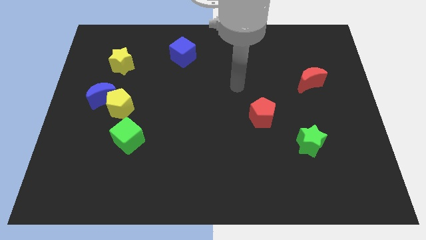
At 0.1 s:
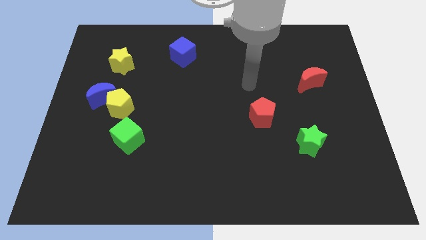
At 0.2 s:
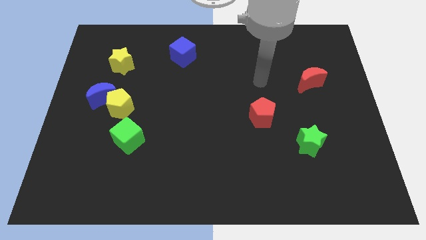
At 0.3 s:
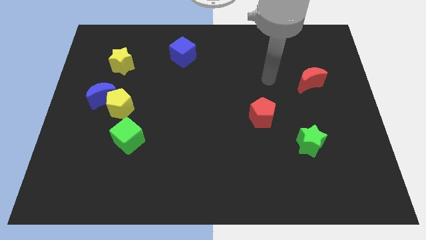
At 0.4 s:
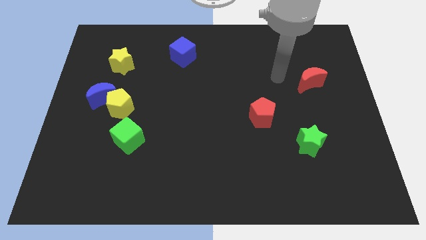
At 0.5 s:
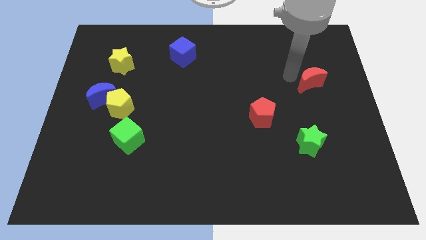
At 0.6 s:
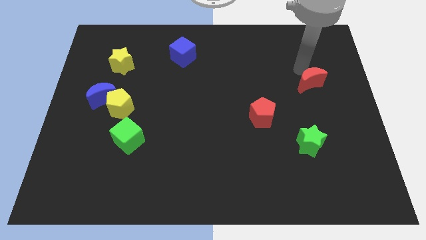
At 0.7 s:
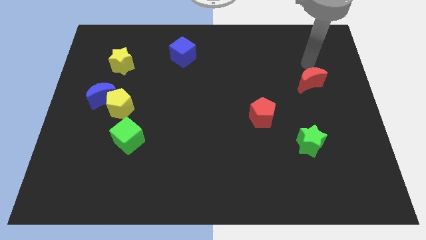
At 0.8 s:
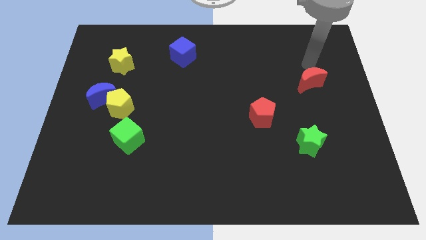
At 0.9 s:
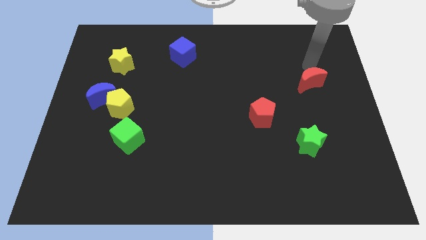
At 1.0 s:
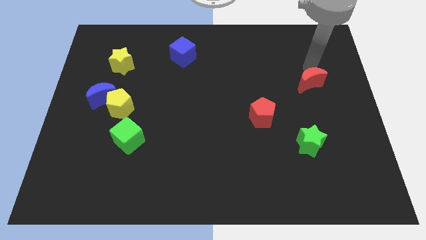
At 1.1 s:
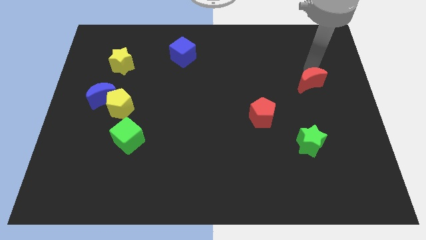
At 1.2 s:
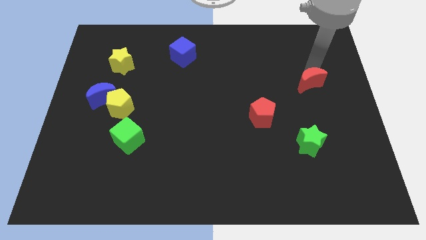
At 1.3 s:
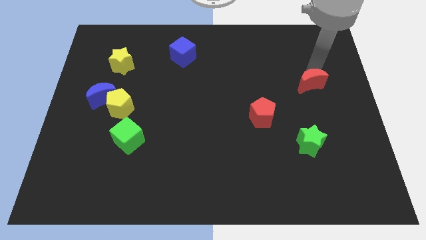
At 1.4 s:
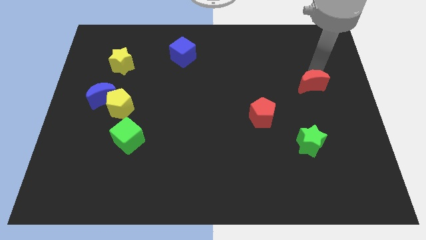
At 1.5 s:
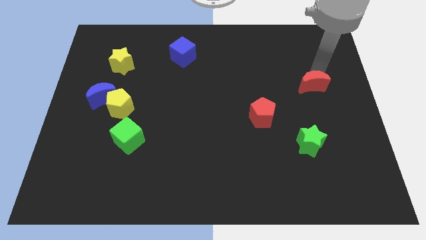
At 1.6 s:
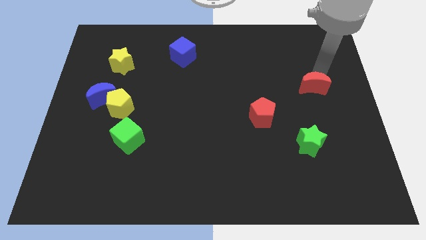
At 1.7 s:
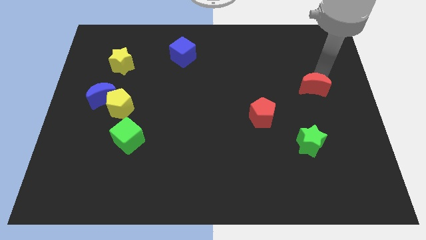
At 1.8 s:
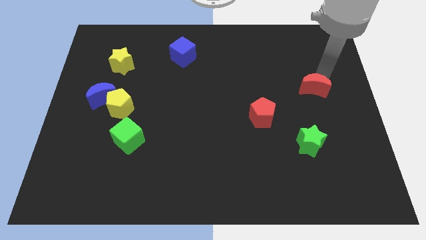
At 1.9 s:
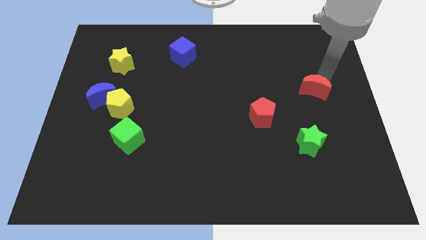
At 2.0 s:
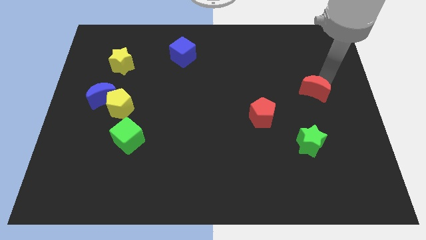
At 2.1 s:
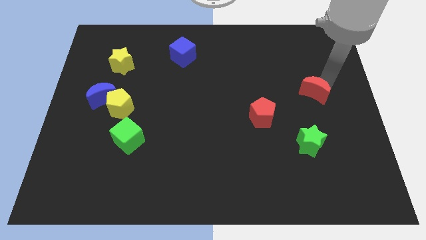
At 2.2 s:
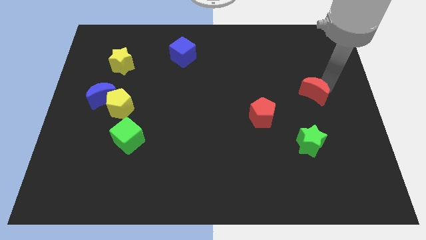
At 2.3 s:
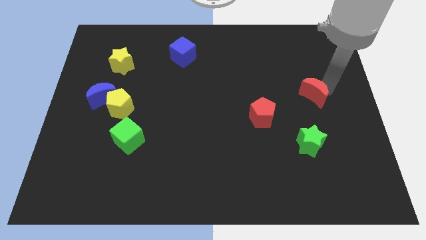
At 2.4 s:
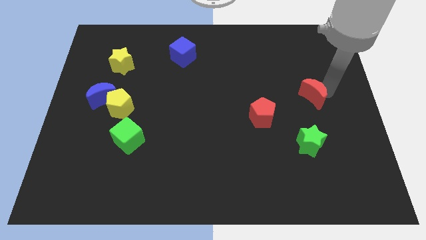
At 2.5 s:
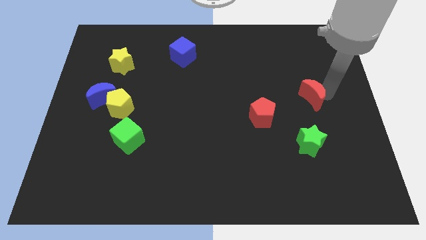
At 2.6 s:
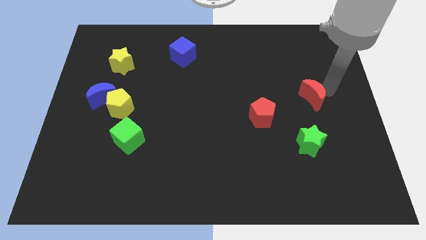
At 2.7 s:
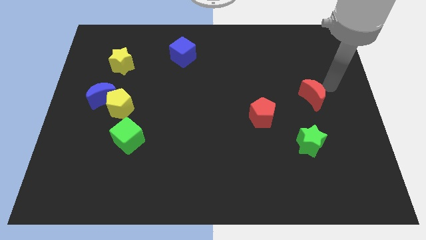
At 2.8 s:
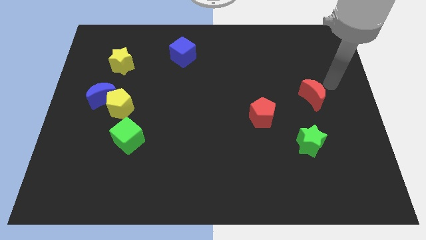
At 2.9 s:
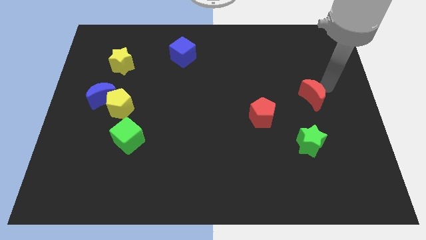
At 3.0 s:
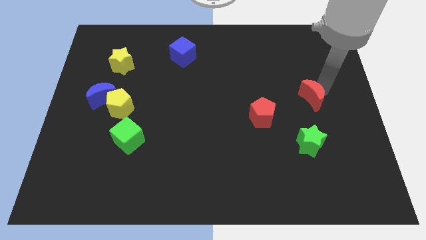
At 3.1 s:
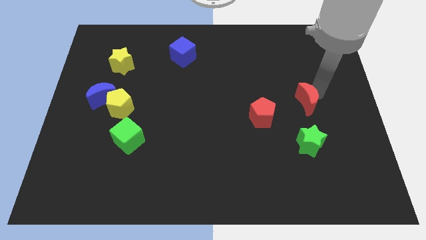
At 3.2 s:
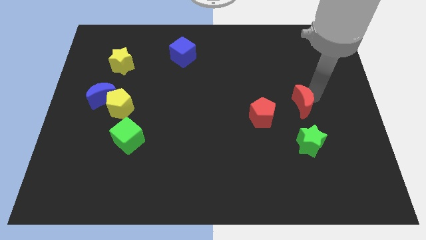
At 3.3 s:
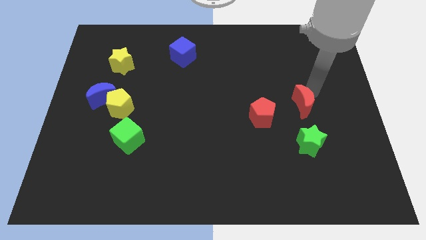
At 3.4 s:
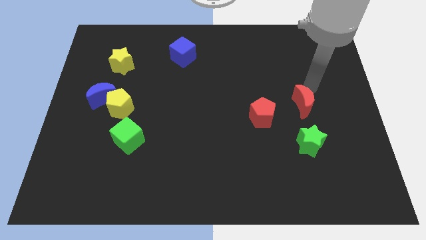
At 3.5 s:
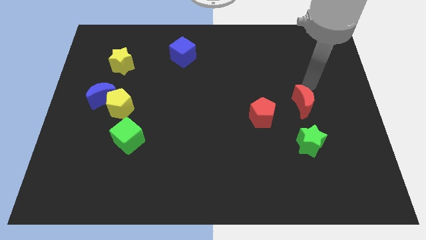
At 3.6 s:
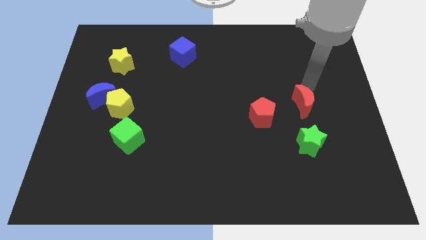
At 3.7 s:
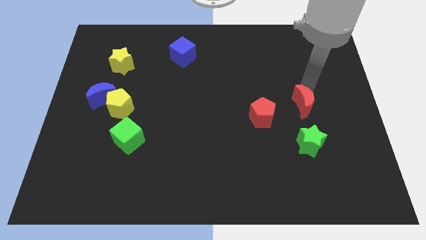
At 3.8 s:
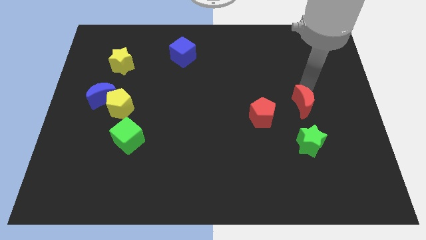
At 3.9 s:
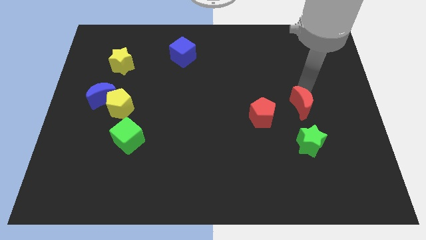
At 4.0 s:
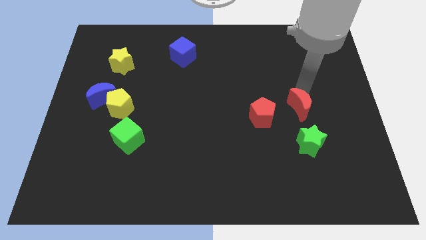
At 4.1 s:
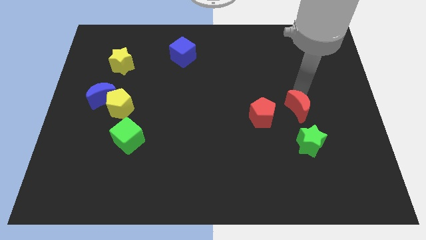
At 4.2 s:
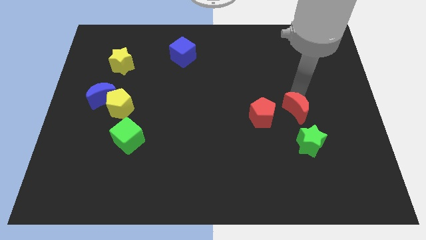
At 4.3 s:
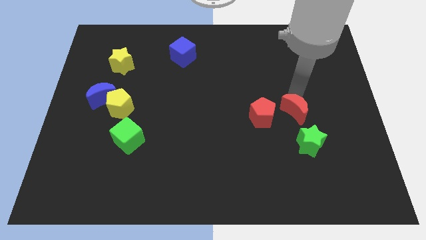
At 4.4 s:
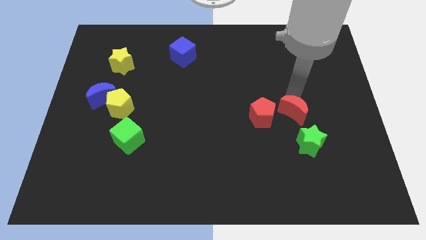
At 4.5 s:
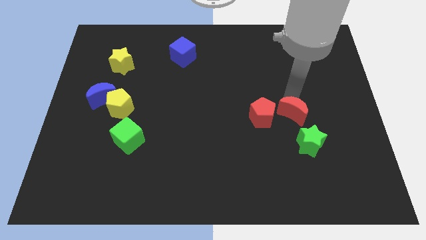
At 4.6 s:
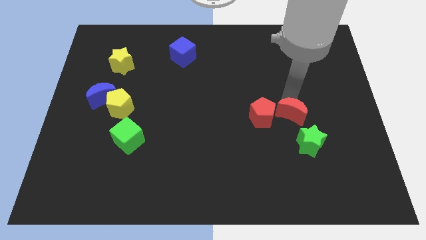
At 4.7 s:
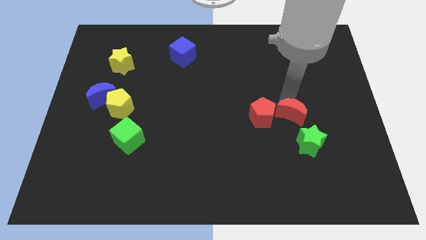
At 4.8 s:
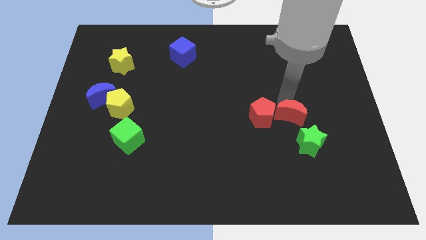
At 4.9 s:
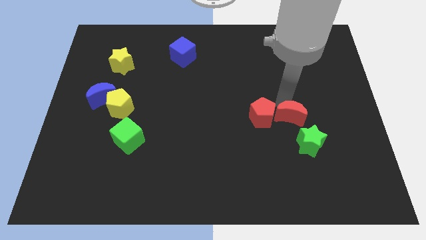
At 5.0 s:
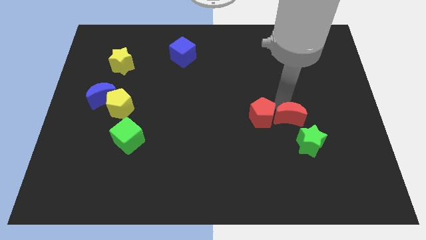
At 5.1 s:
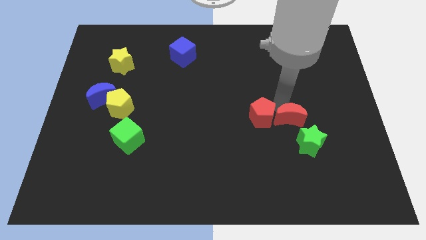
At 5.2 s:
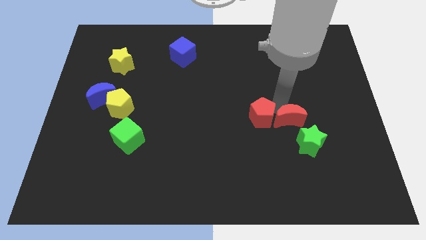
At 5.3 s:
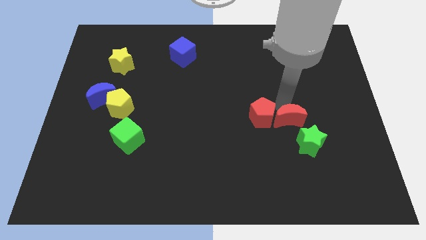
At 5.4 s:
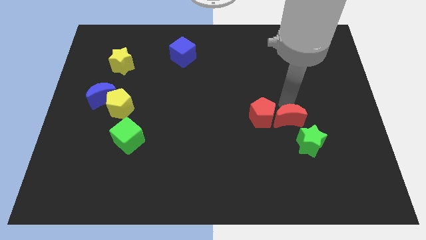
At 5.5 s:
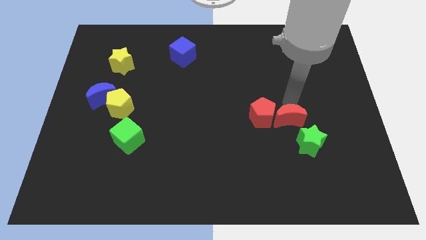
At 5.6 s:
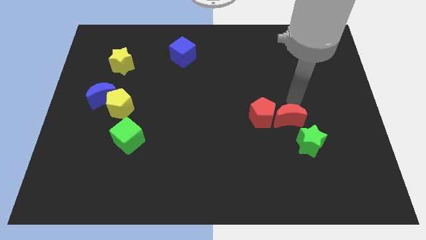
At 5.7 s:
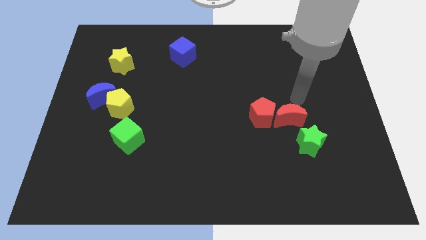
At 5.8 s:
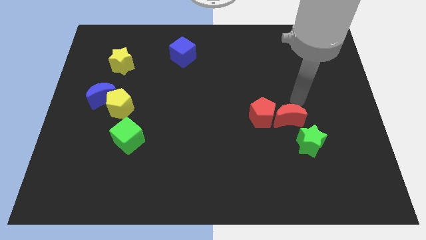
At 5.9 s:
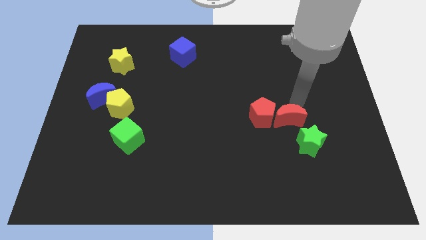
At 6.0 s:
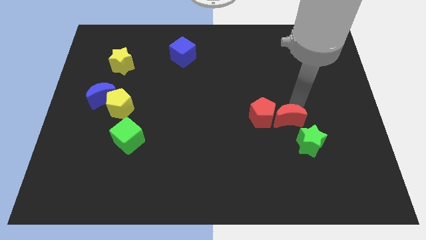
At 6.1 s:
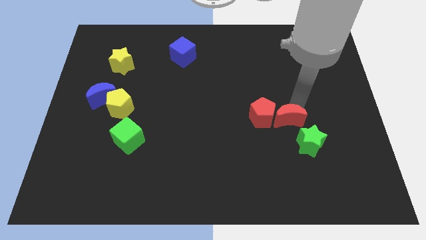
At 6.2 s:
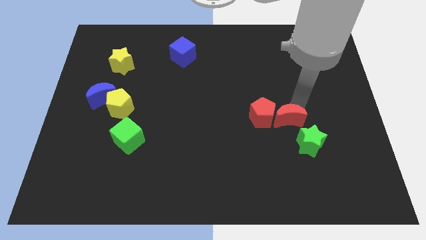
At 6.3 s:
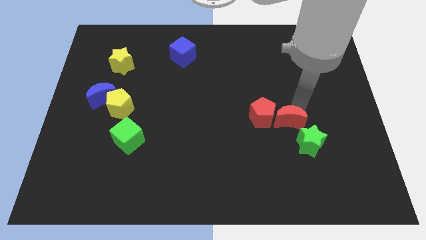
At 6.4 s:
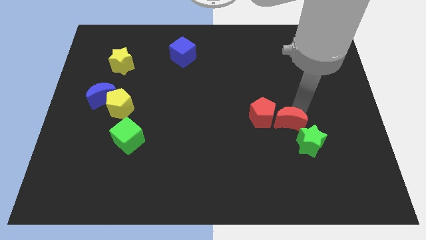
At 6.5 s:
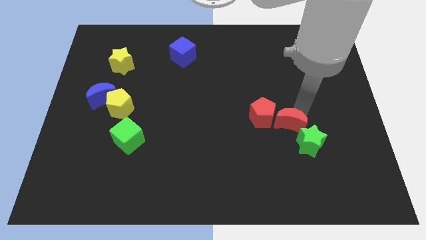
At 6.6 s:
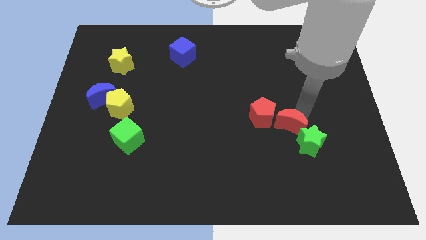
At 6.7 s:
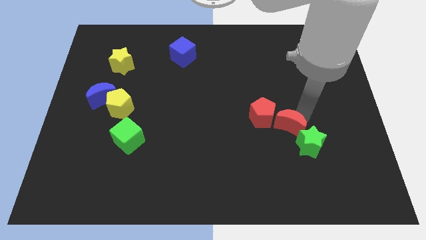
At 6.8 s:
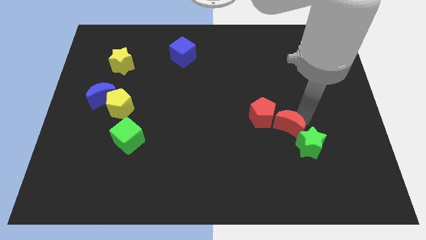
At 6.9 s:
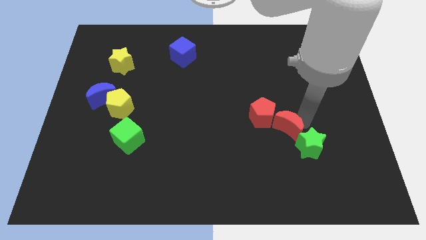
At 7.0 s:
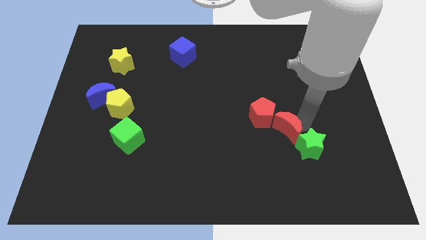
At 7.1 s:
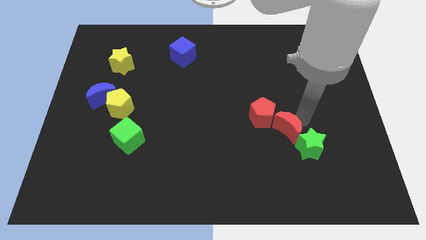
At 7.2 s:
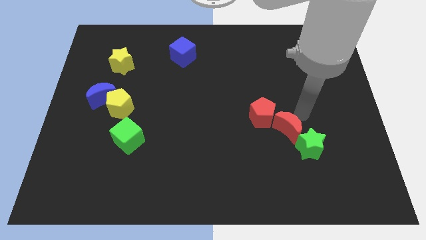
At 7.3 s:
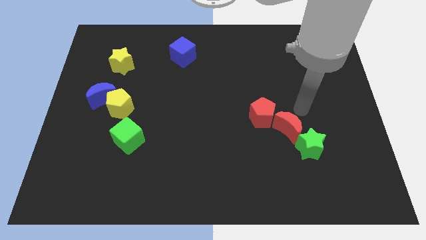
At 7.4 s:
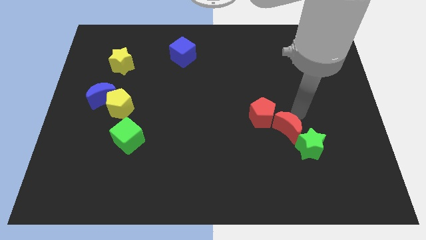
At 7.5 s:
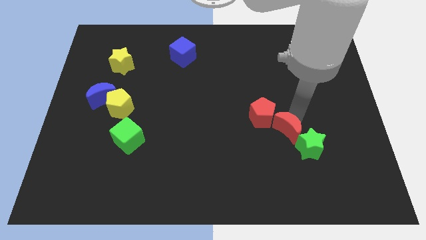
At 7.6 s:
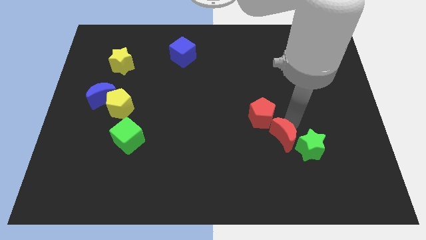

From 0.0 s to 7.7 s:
move the red moon to the bottom of the red pentagon
